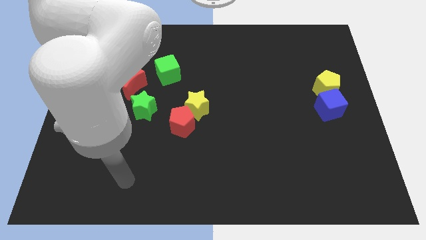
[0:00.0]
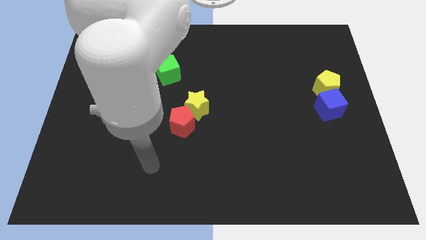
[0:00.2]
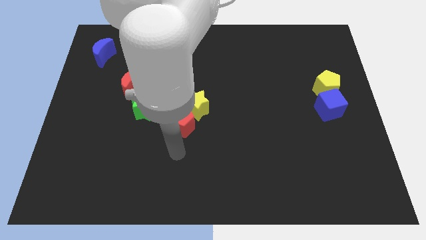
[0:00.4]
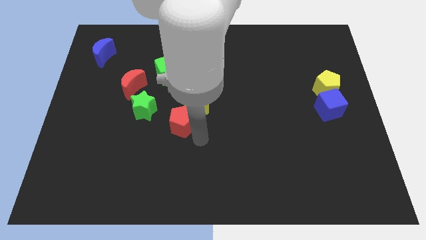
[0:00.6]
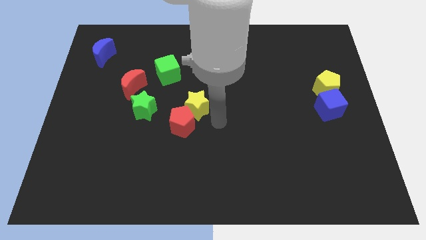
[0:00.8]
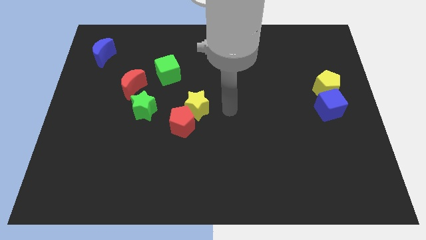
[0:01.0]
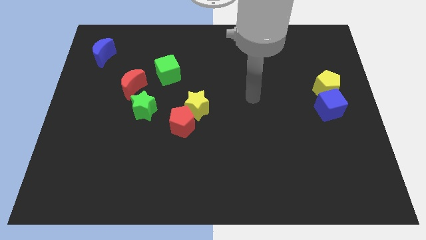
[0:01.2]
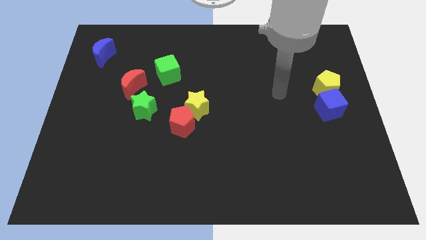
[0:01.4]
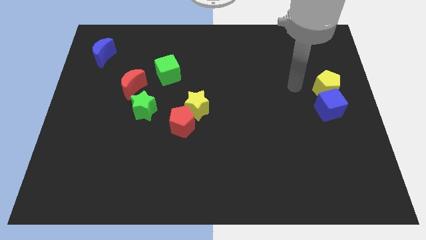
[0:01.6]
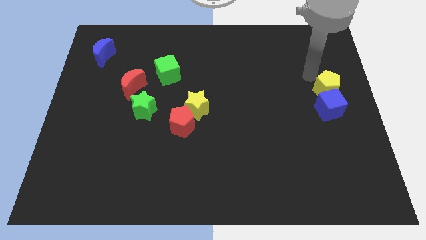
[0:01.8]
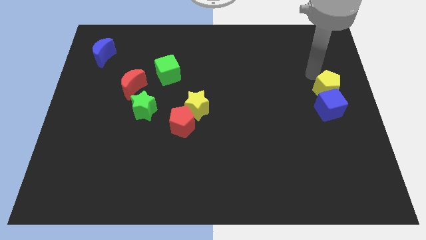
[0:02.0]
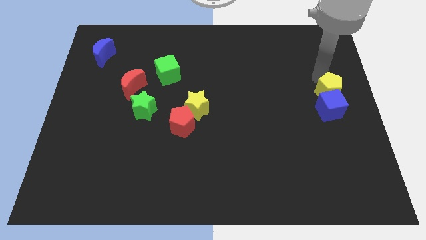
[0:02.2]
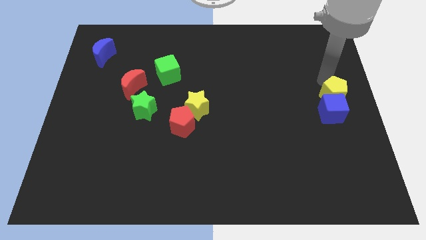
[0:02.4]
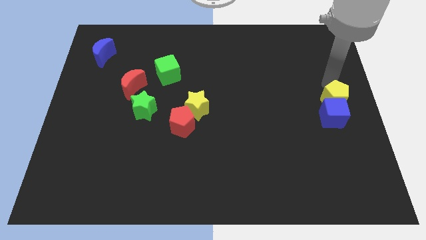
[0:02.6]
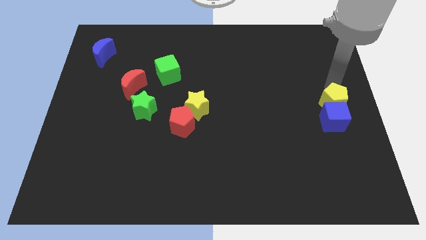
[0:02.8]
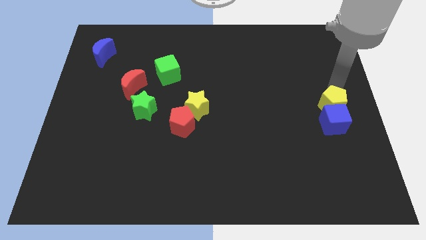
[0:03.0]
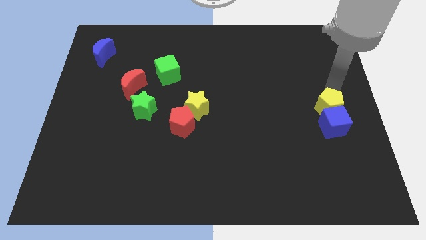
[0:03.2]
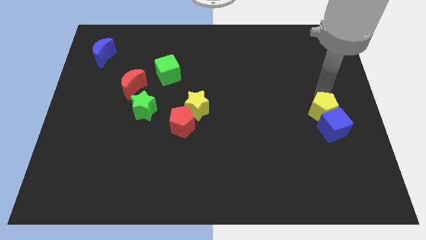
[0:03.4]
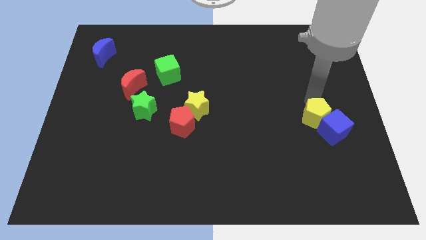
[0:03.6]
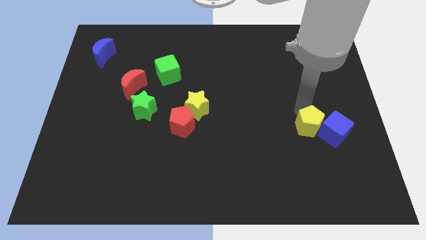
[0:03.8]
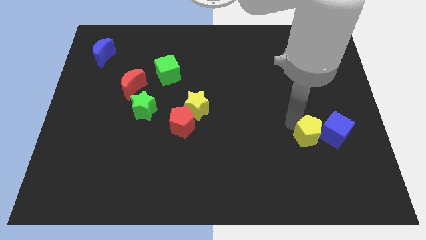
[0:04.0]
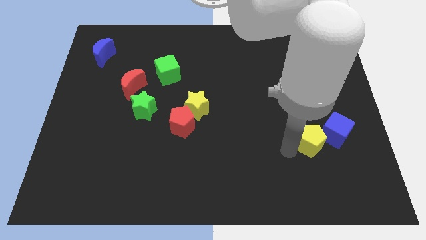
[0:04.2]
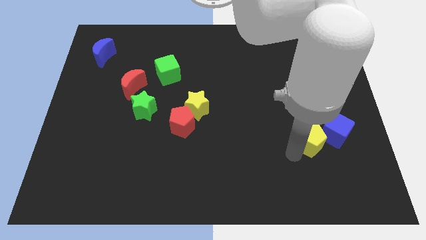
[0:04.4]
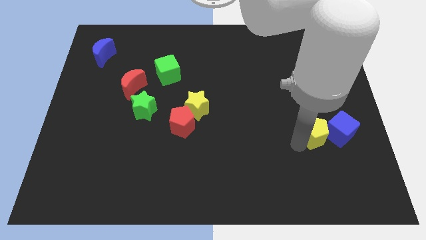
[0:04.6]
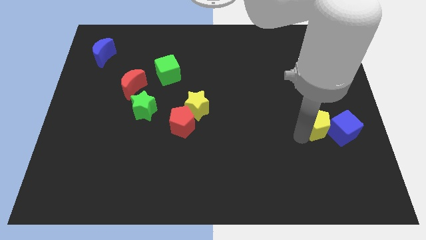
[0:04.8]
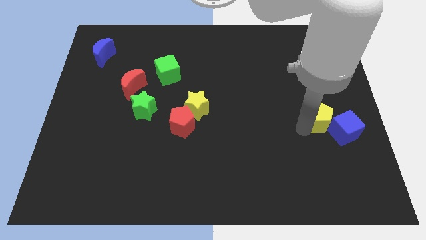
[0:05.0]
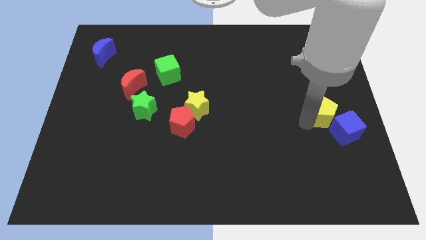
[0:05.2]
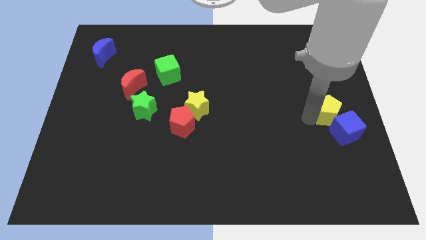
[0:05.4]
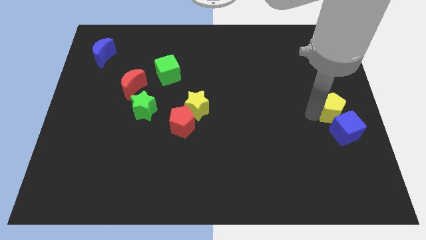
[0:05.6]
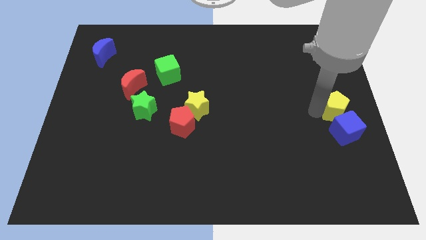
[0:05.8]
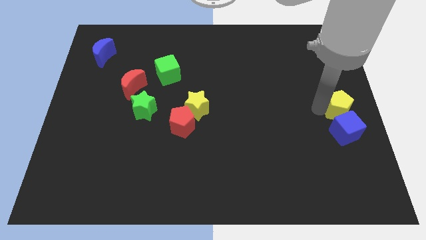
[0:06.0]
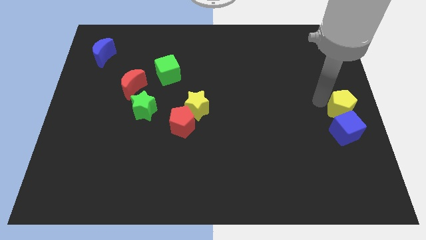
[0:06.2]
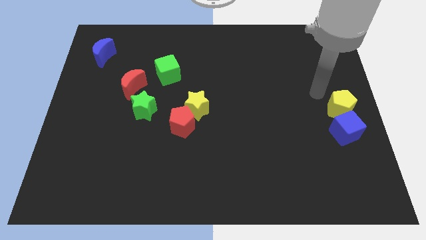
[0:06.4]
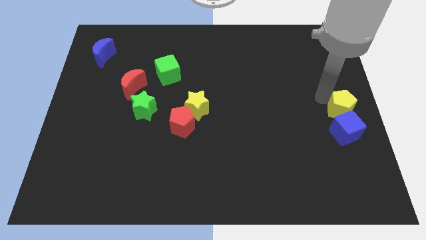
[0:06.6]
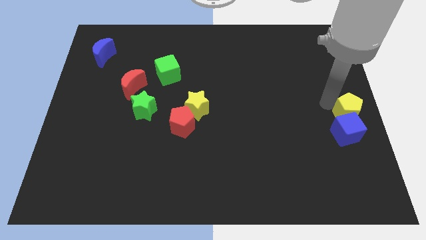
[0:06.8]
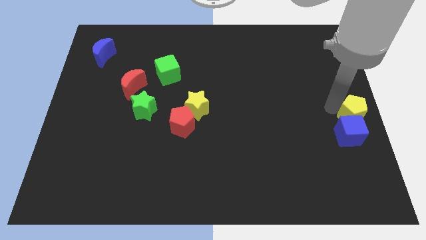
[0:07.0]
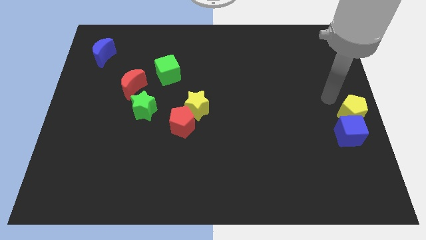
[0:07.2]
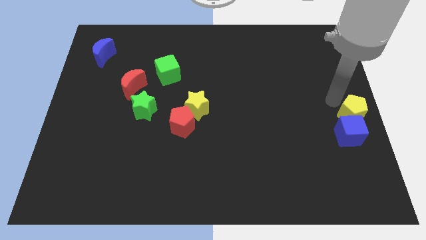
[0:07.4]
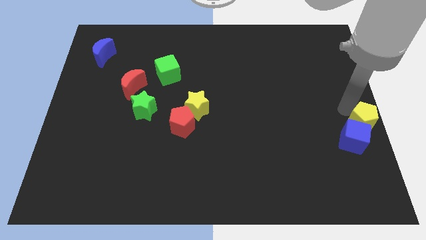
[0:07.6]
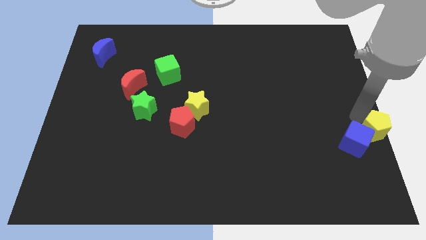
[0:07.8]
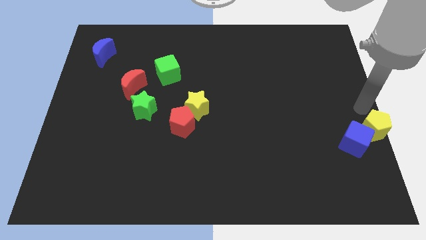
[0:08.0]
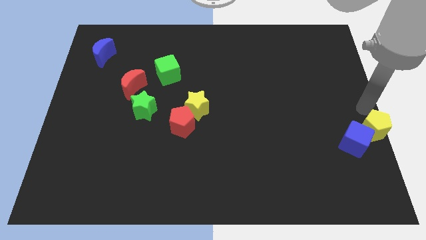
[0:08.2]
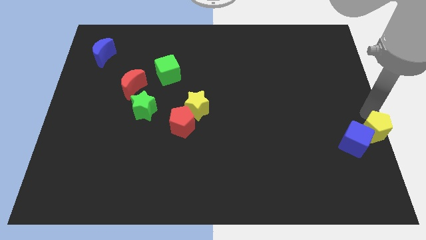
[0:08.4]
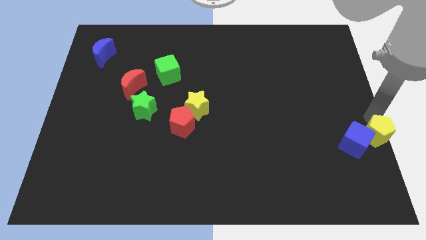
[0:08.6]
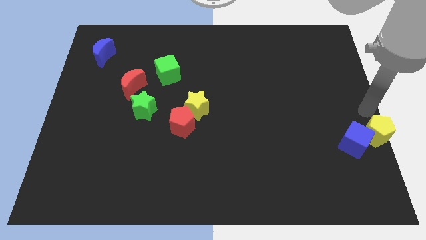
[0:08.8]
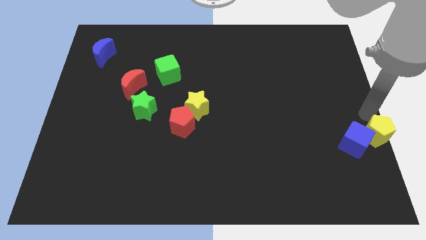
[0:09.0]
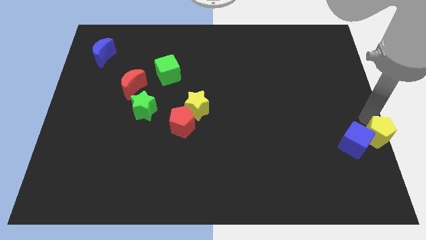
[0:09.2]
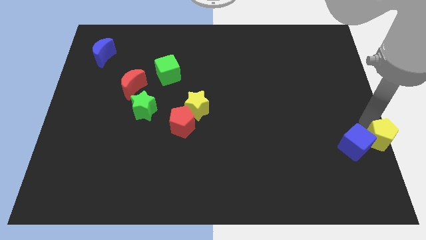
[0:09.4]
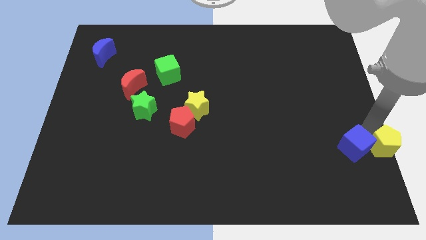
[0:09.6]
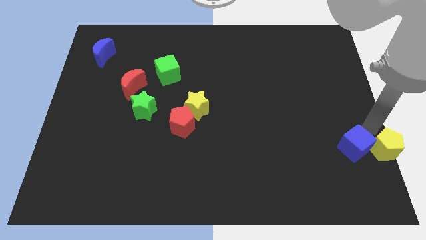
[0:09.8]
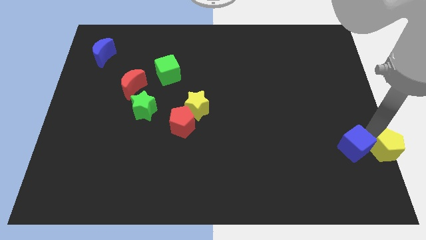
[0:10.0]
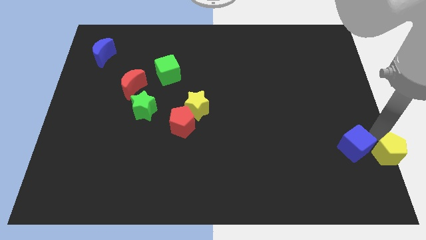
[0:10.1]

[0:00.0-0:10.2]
put the yellow pentagon to the lower right corner
